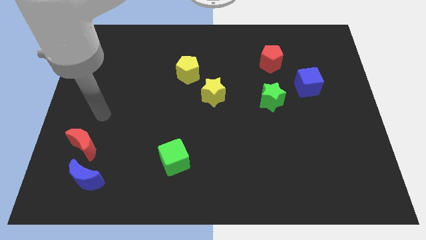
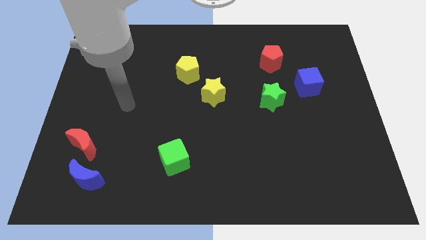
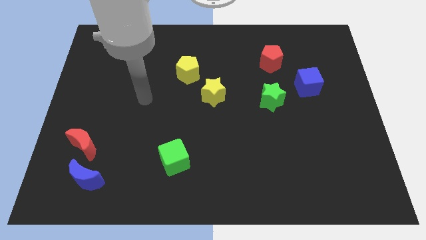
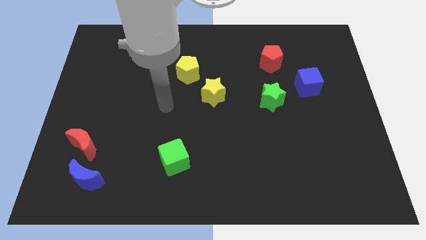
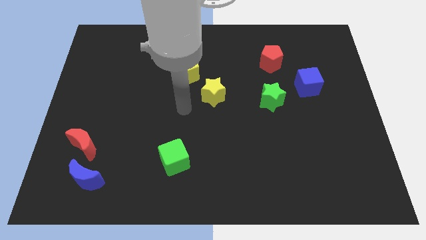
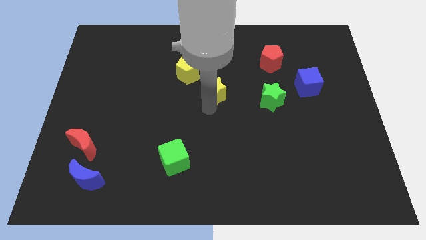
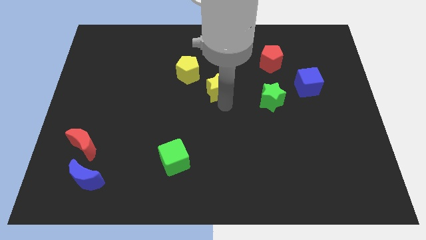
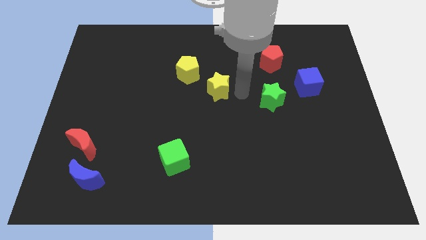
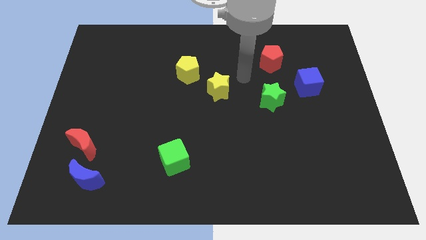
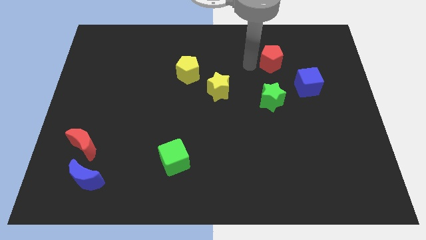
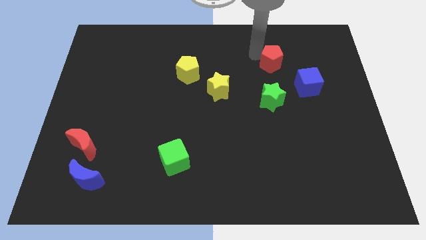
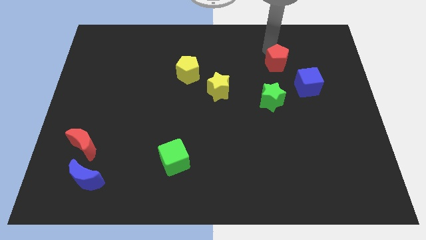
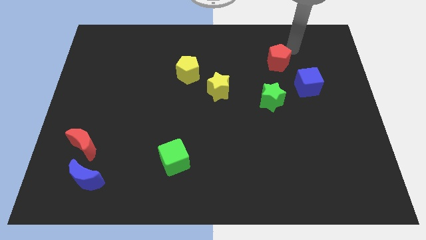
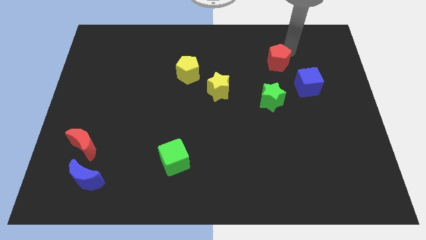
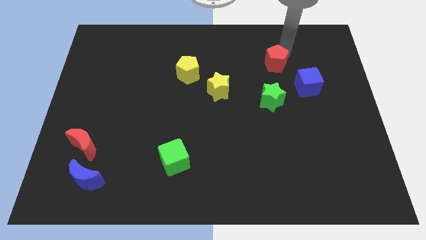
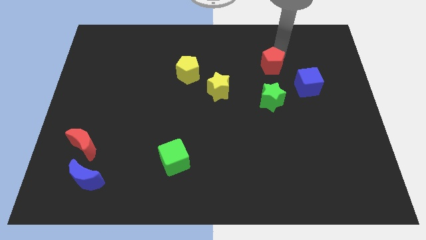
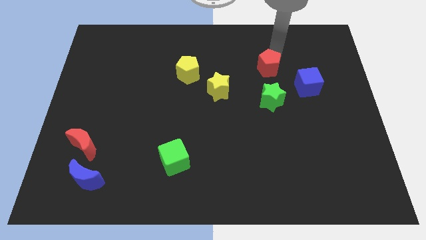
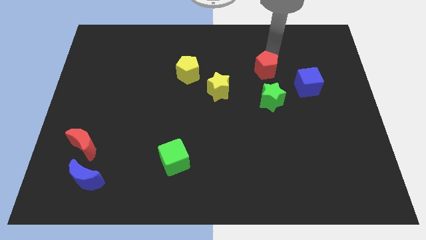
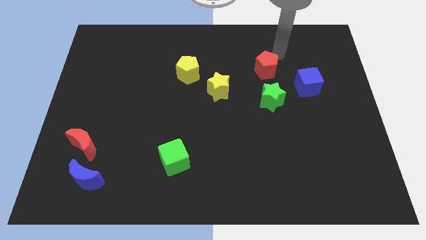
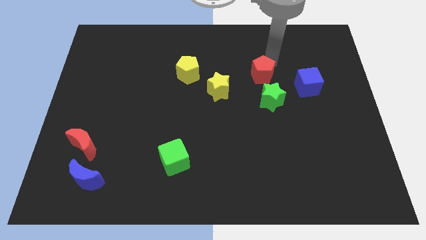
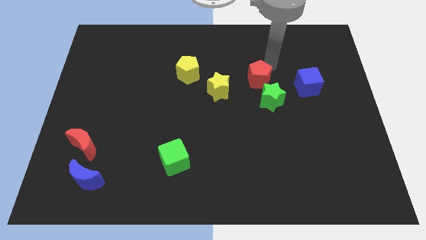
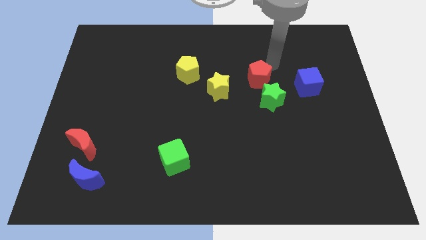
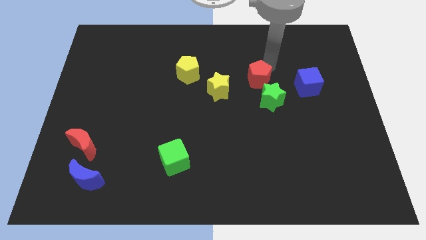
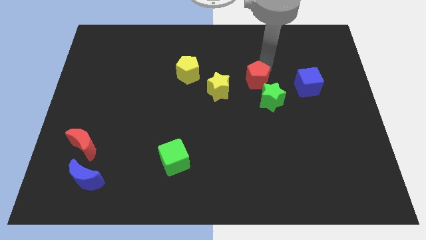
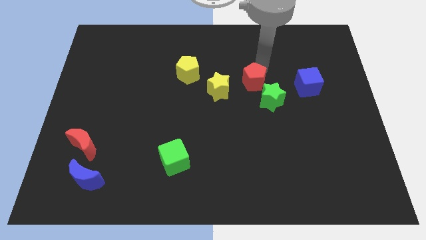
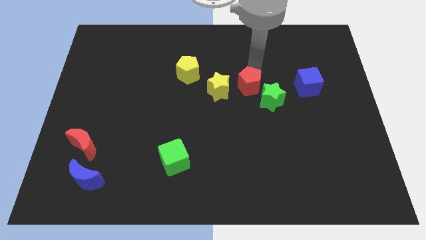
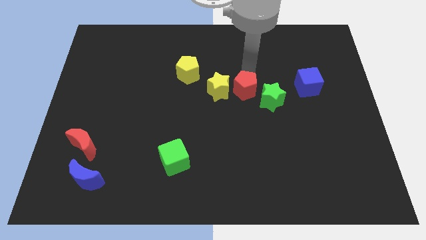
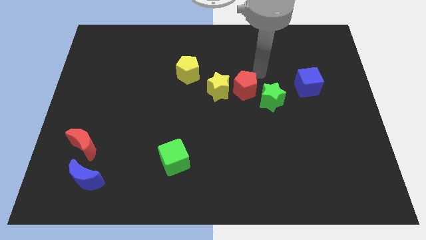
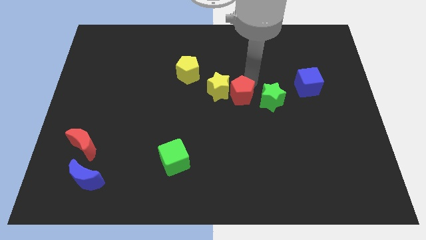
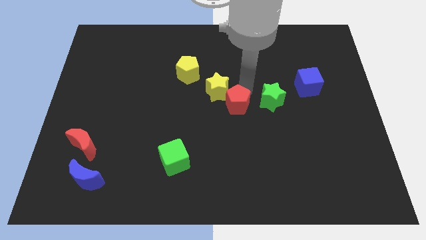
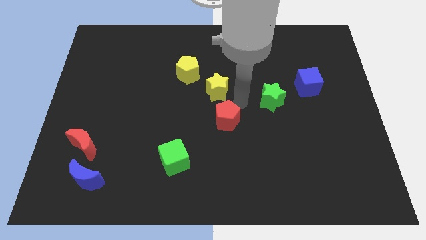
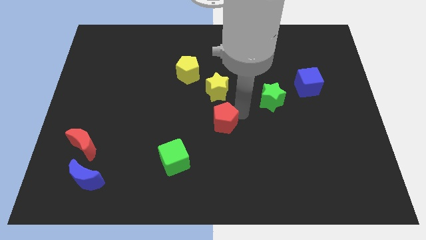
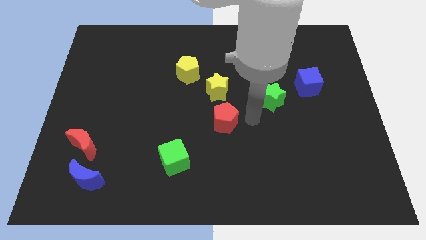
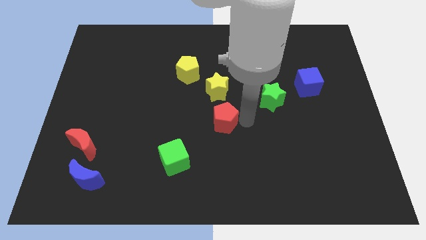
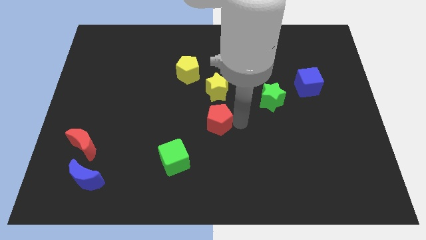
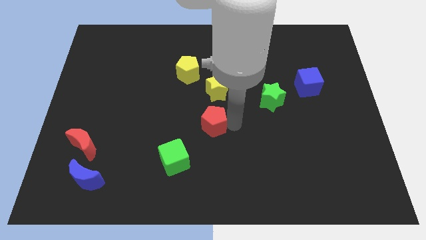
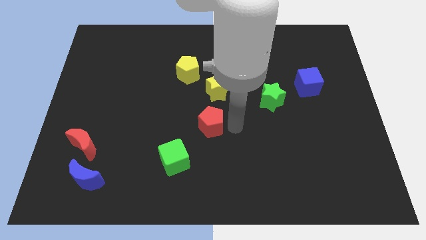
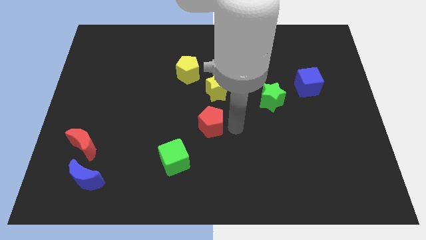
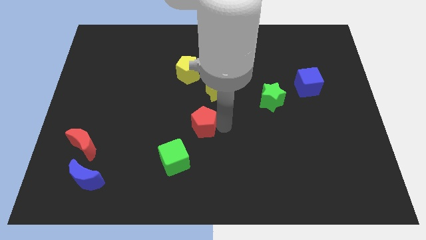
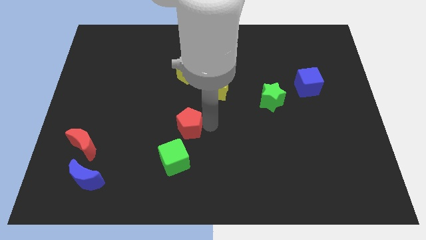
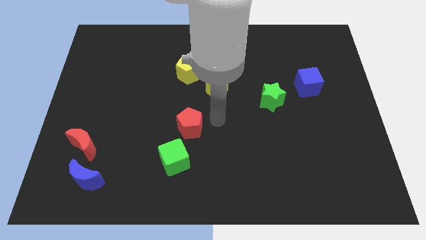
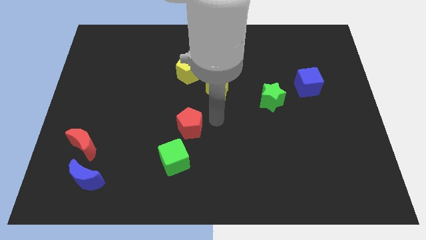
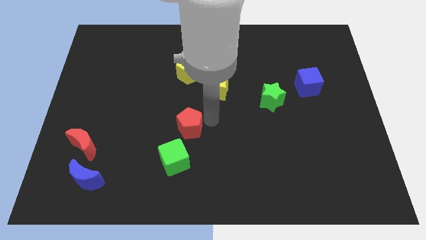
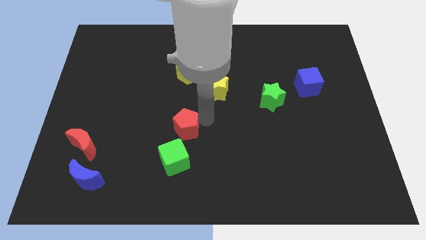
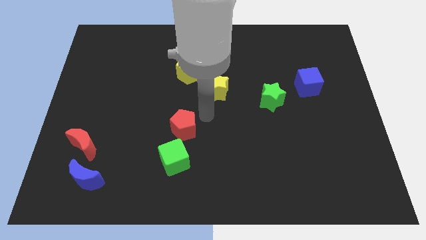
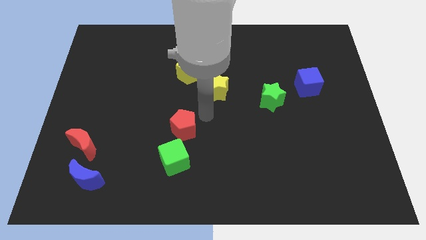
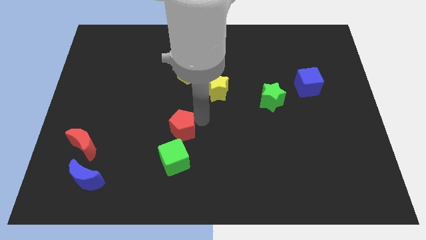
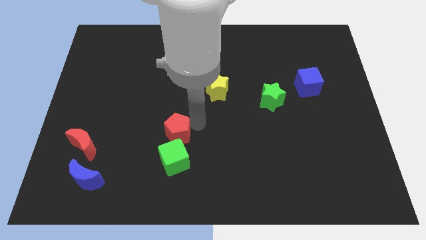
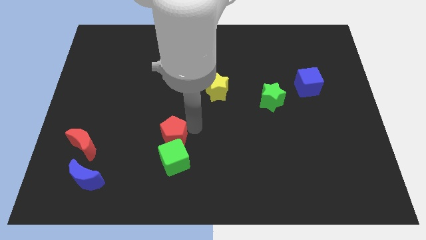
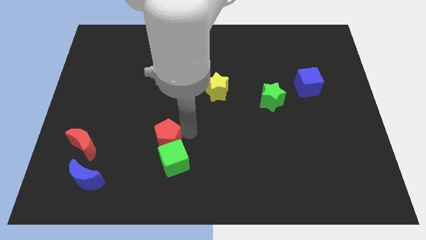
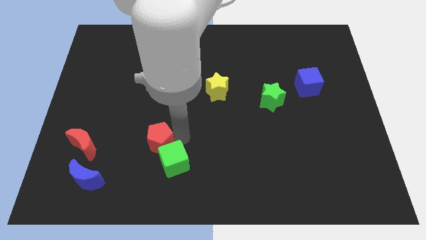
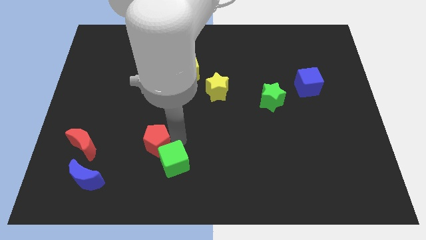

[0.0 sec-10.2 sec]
put the red pentagon to the left of the green cube

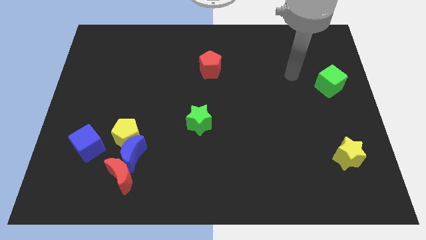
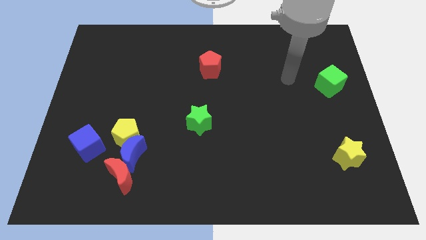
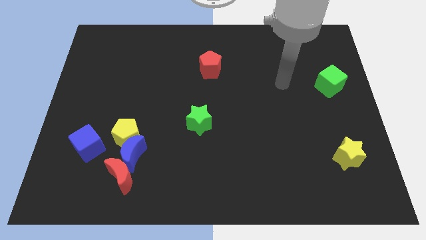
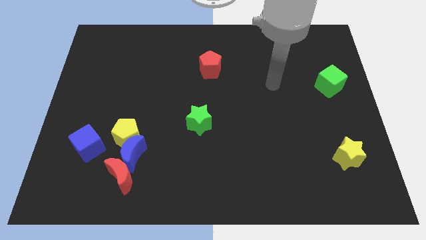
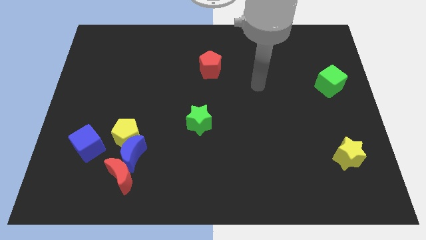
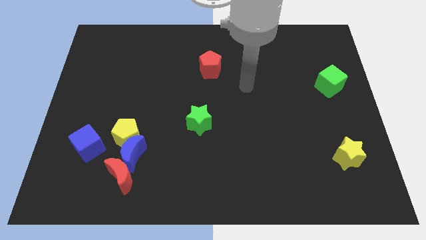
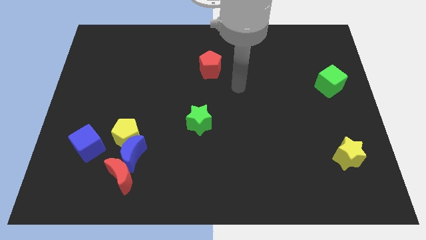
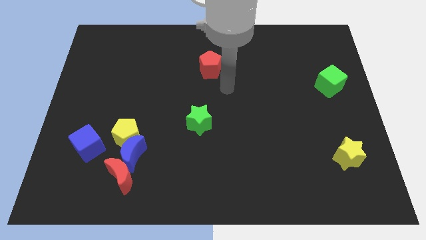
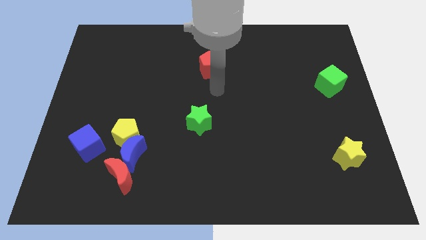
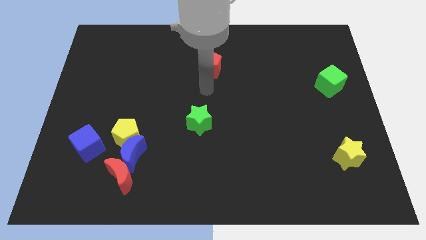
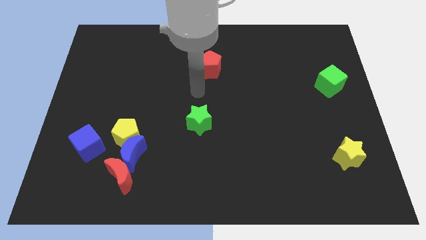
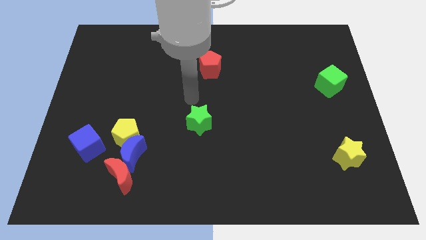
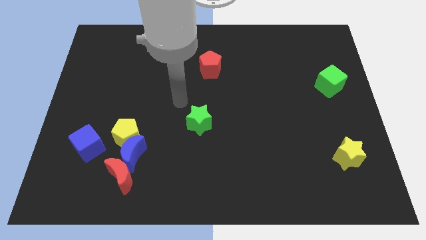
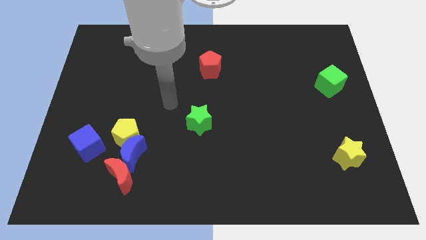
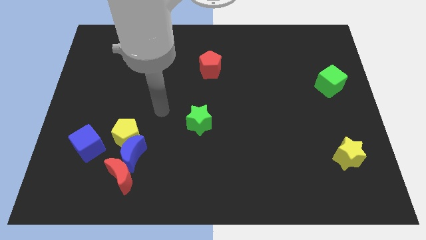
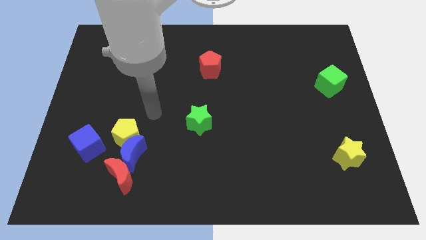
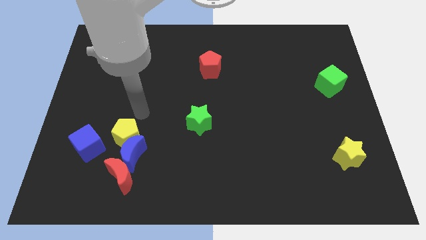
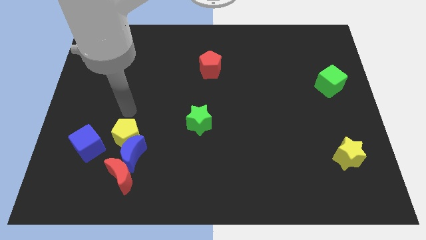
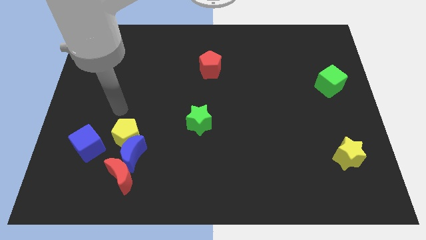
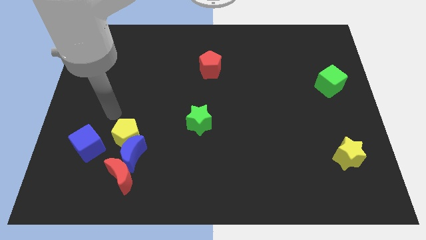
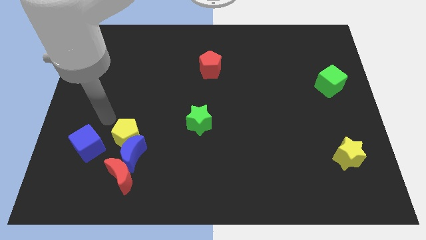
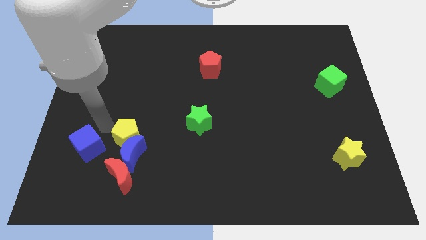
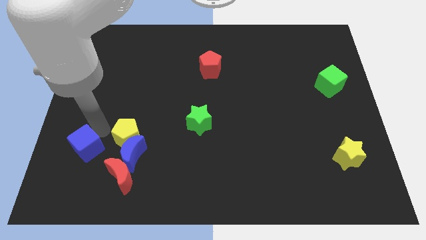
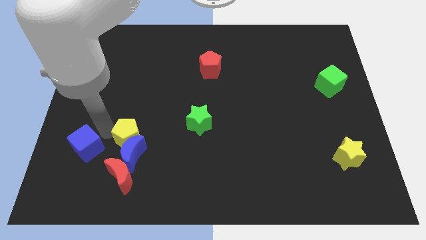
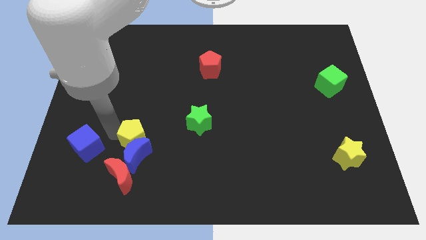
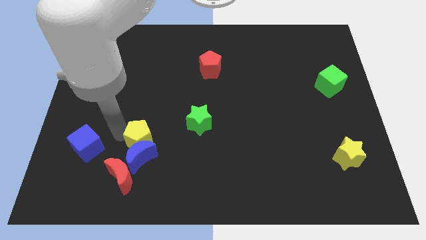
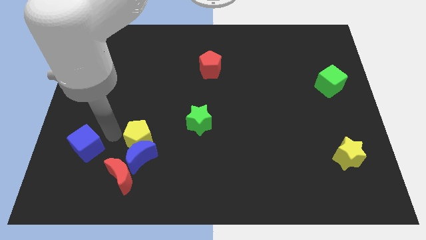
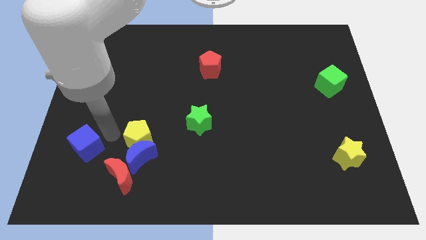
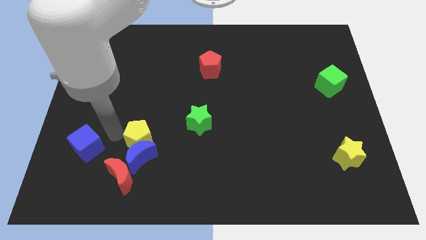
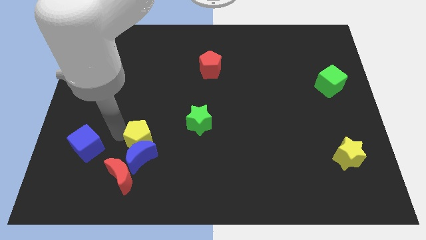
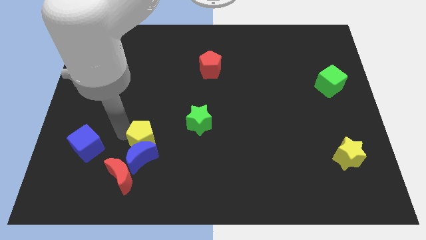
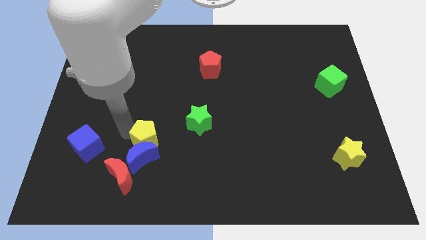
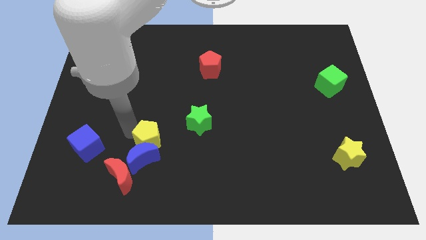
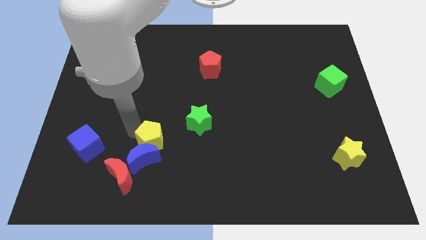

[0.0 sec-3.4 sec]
slide the yellow pentagon to the bottom left of the green star
